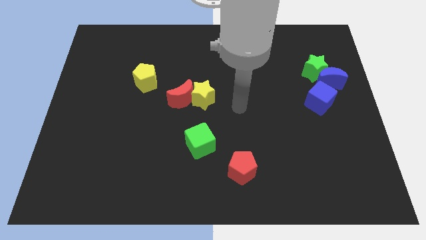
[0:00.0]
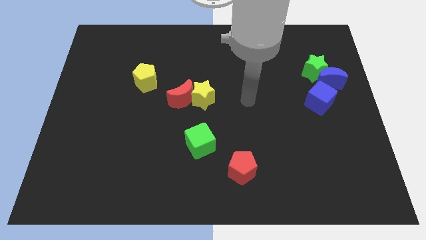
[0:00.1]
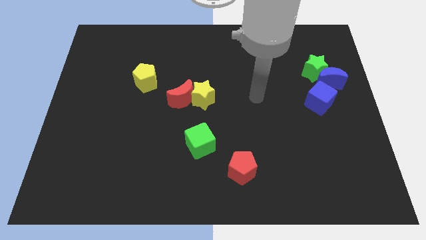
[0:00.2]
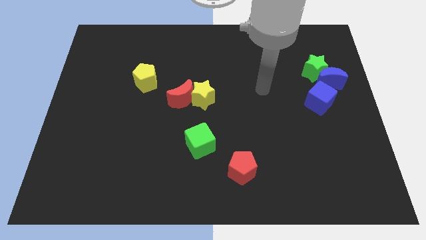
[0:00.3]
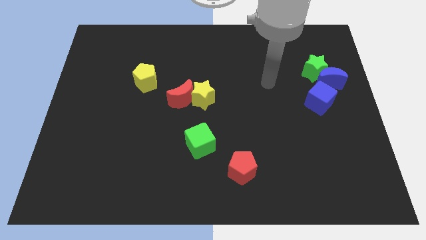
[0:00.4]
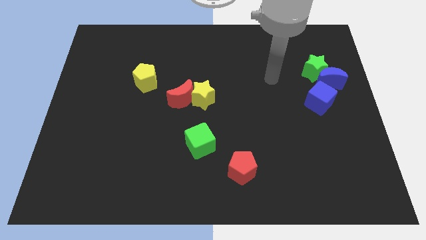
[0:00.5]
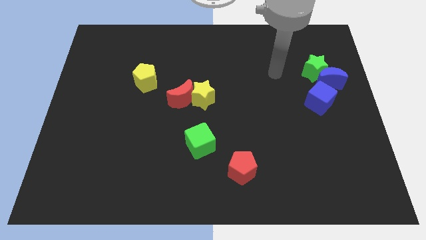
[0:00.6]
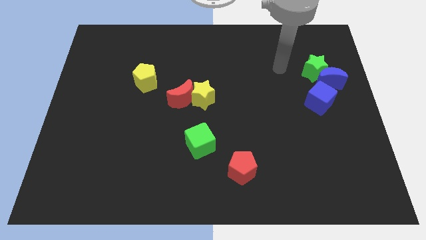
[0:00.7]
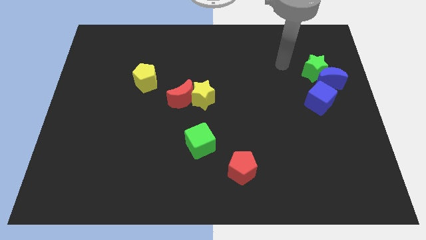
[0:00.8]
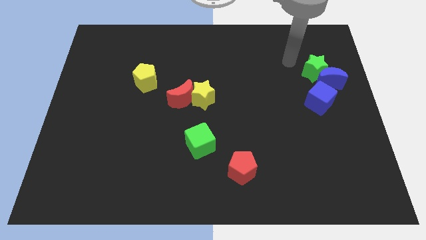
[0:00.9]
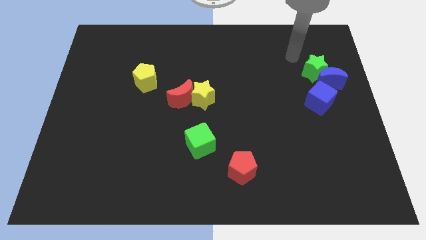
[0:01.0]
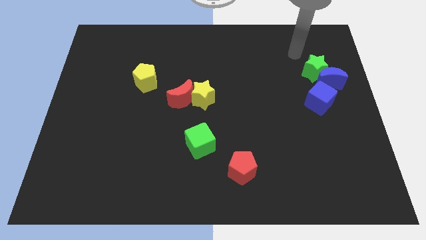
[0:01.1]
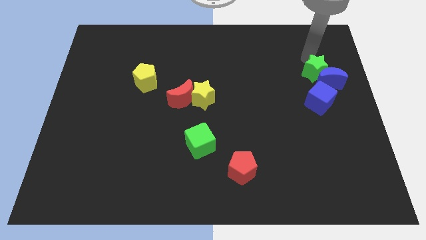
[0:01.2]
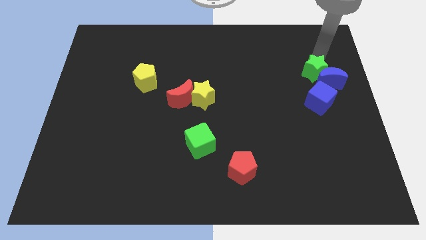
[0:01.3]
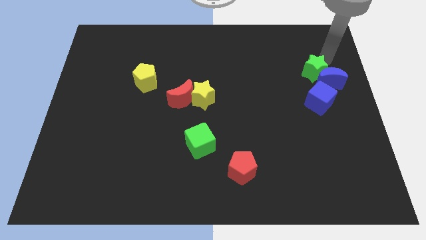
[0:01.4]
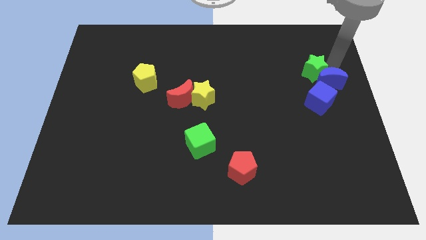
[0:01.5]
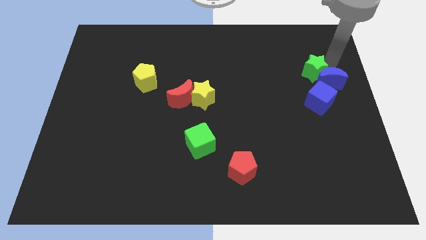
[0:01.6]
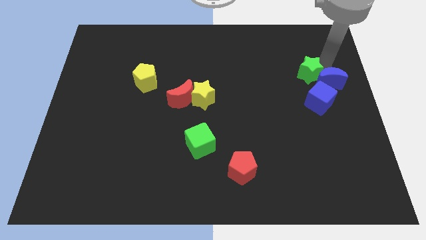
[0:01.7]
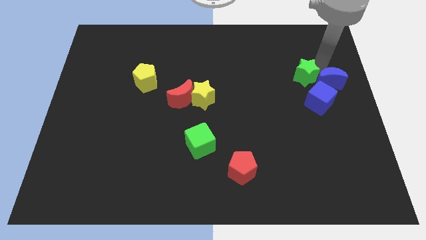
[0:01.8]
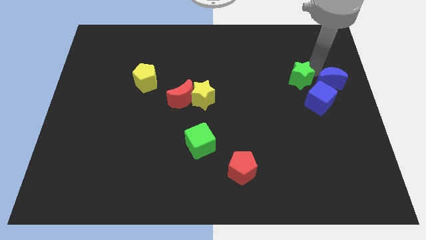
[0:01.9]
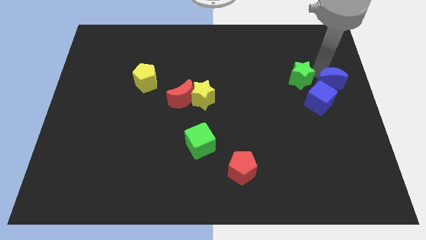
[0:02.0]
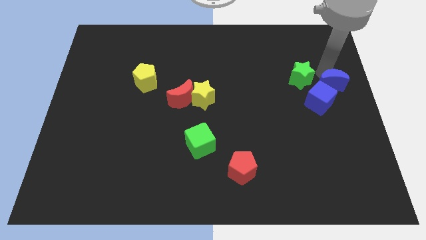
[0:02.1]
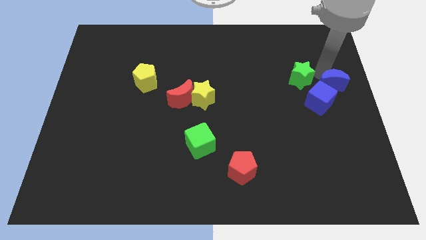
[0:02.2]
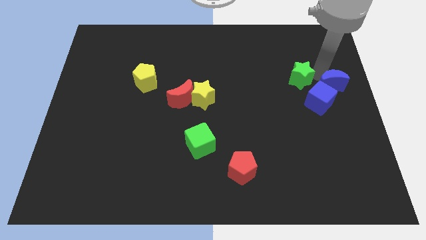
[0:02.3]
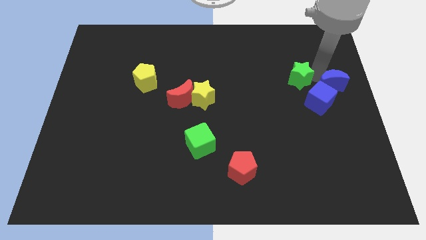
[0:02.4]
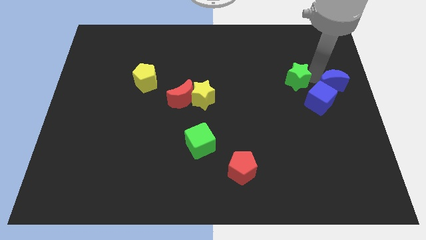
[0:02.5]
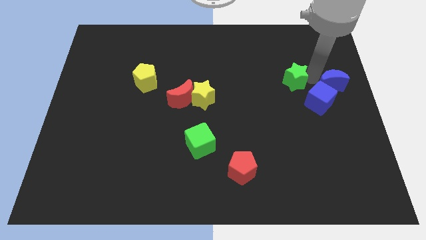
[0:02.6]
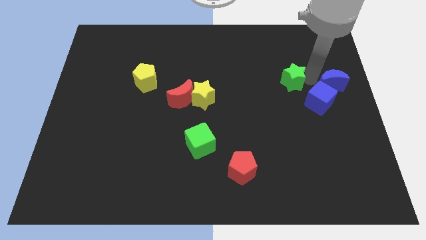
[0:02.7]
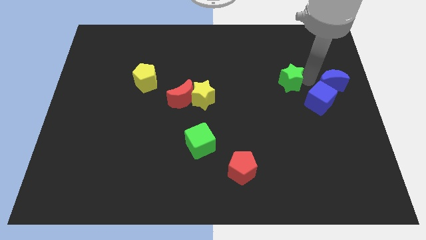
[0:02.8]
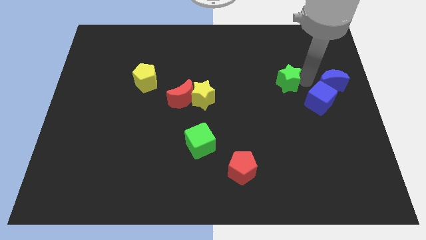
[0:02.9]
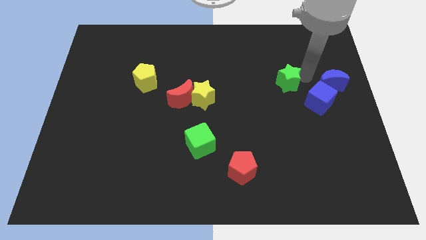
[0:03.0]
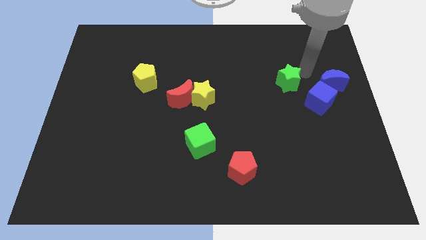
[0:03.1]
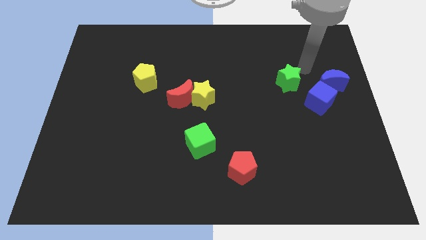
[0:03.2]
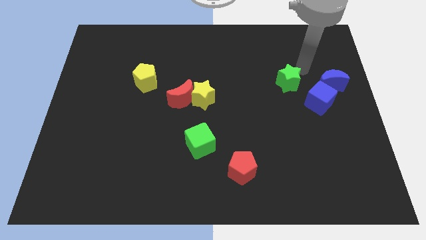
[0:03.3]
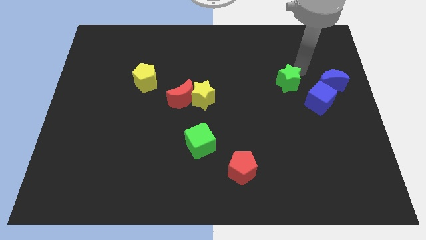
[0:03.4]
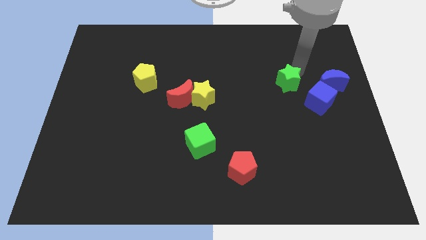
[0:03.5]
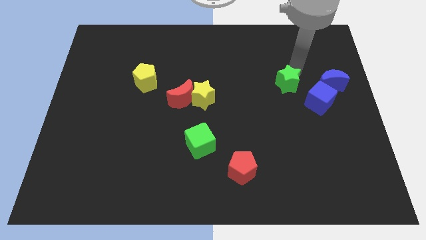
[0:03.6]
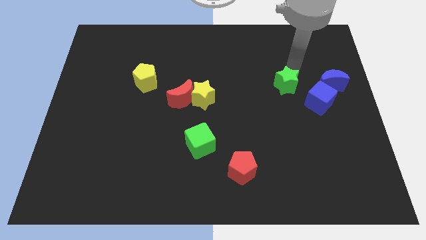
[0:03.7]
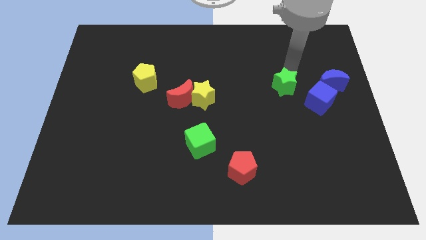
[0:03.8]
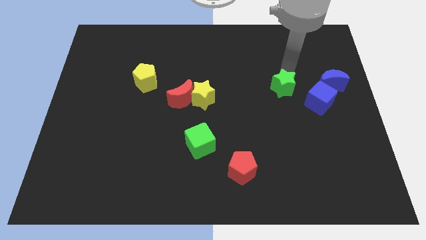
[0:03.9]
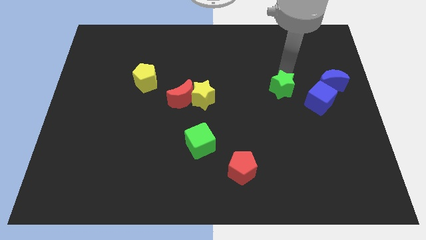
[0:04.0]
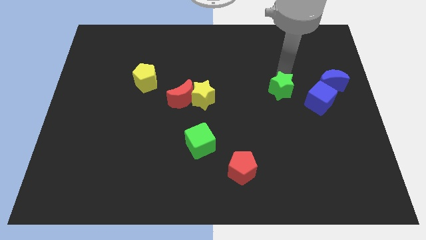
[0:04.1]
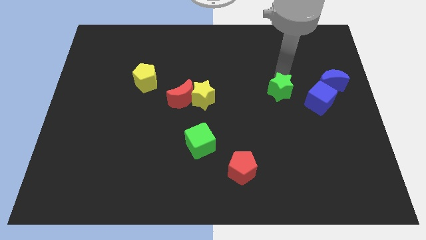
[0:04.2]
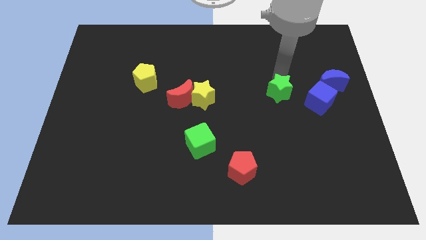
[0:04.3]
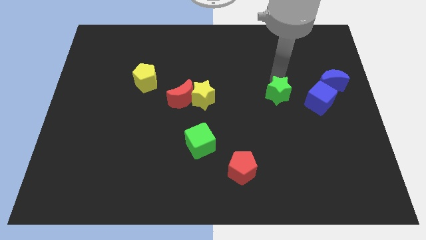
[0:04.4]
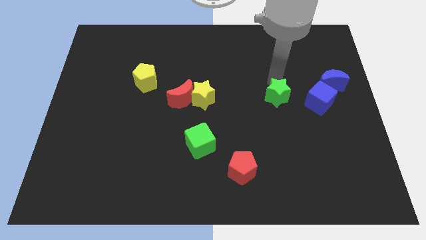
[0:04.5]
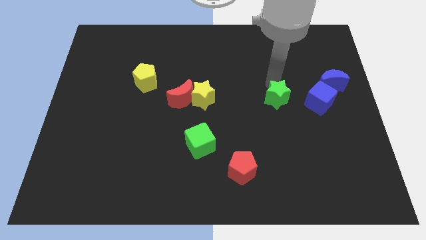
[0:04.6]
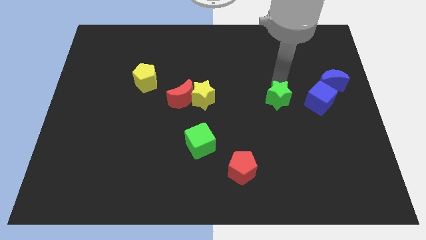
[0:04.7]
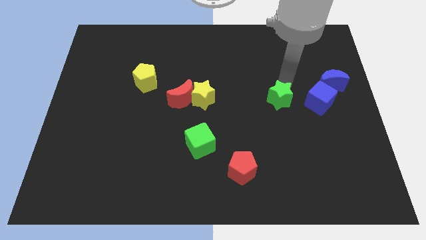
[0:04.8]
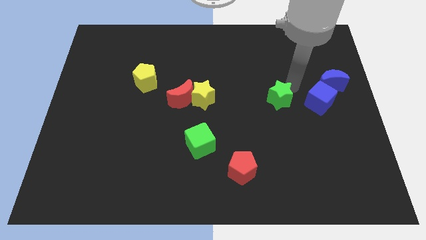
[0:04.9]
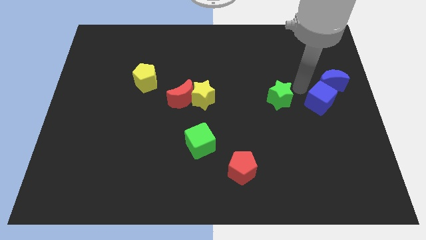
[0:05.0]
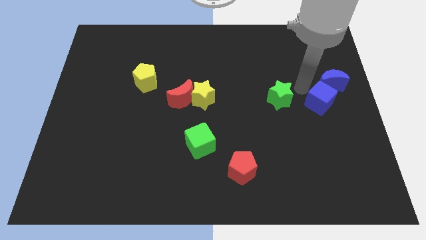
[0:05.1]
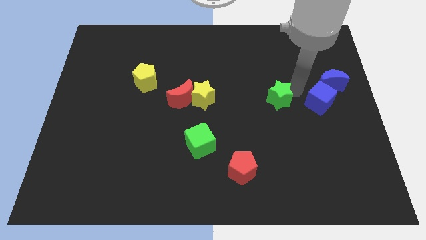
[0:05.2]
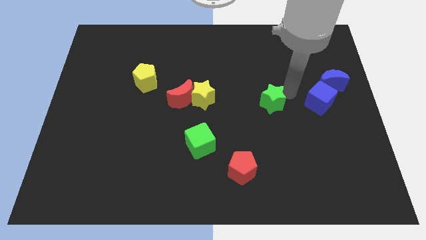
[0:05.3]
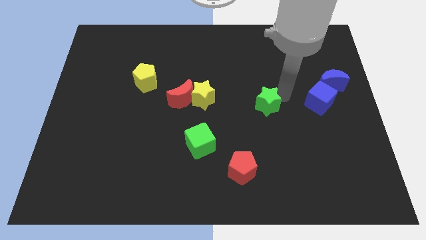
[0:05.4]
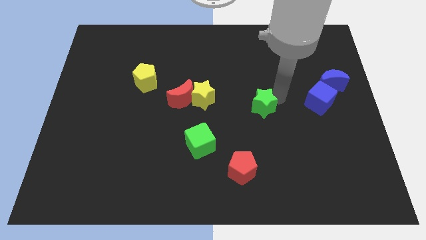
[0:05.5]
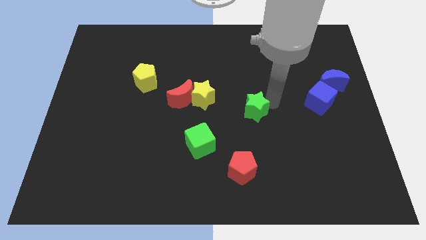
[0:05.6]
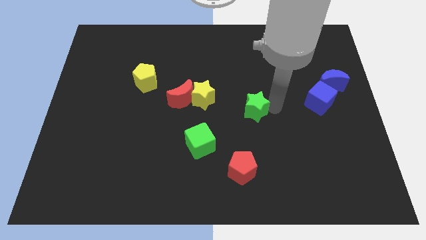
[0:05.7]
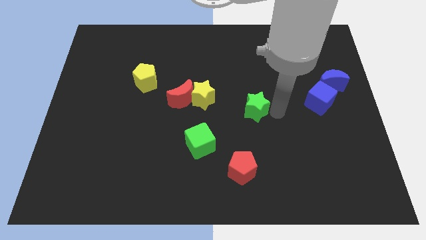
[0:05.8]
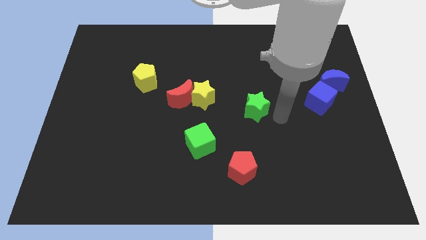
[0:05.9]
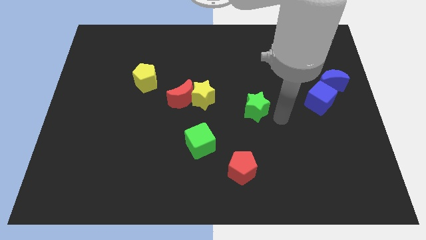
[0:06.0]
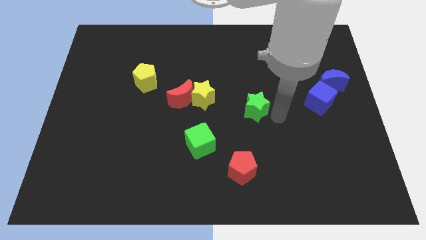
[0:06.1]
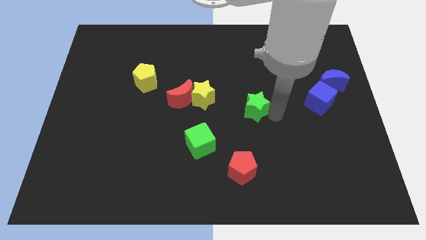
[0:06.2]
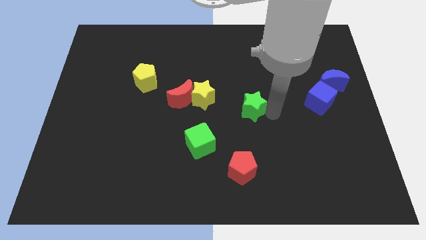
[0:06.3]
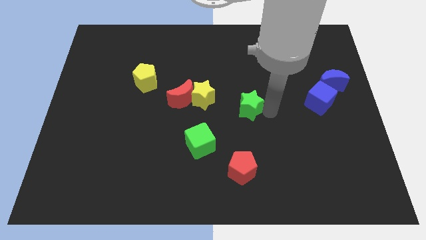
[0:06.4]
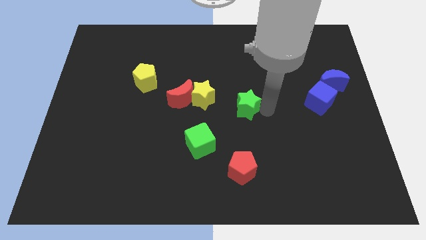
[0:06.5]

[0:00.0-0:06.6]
slide the green star just right of the red moon
